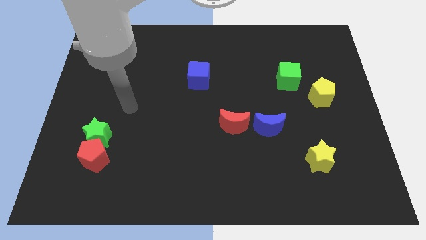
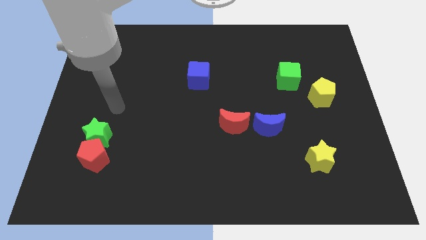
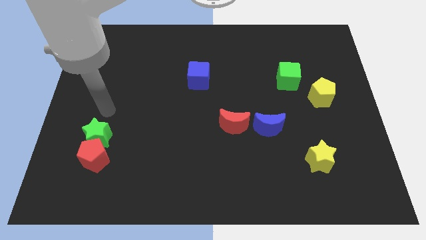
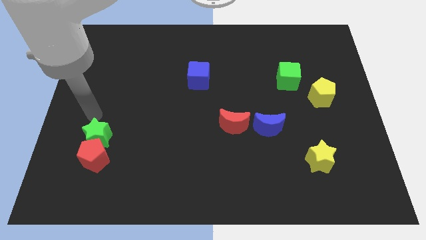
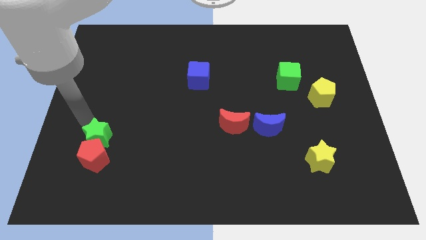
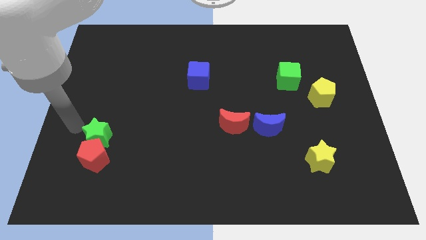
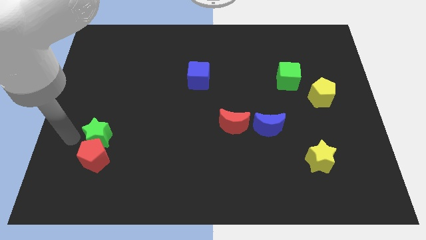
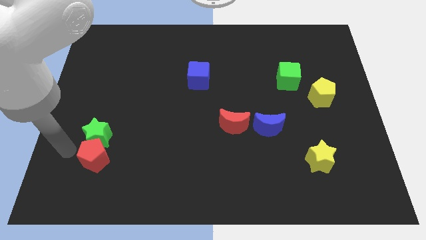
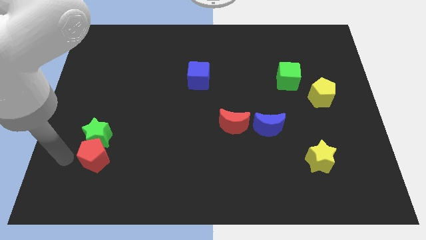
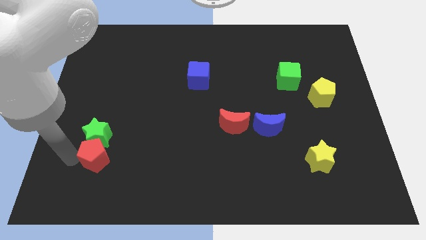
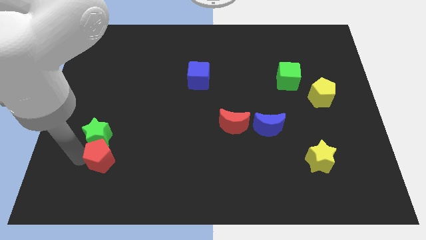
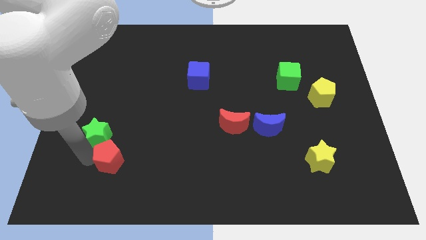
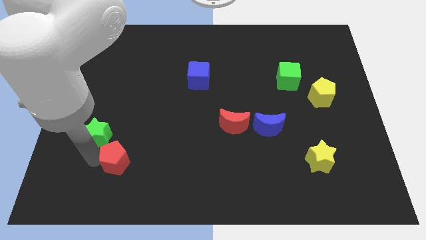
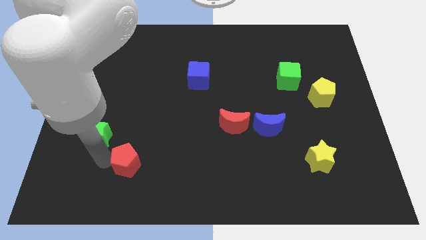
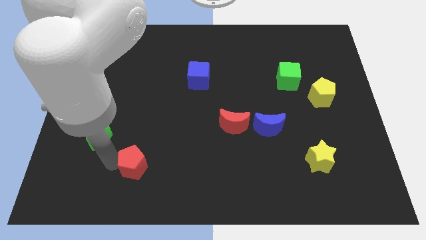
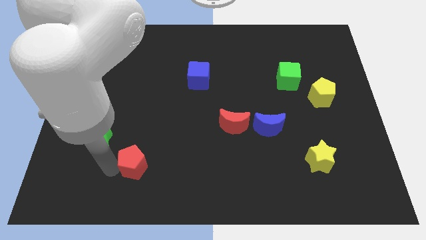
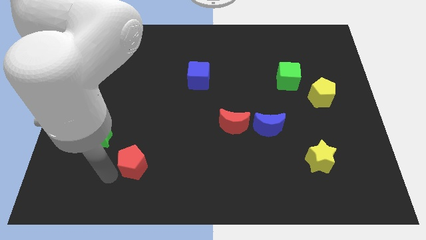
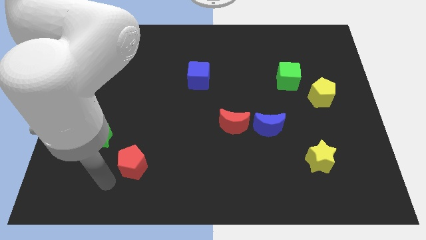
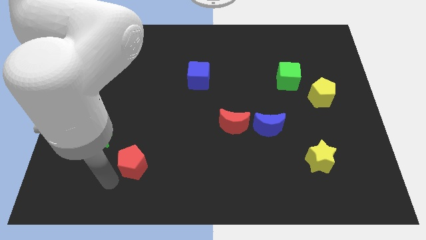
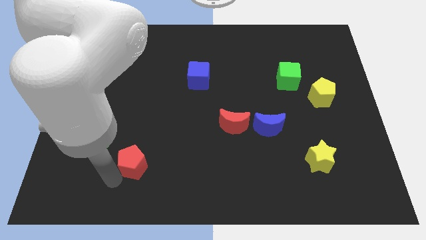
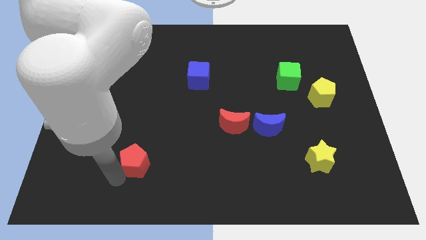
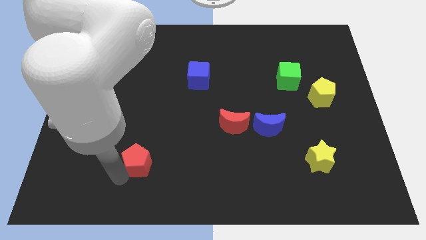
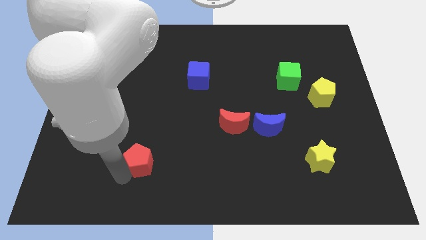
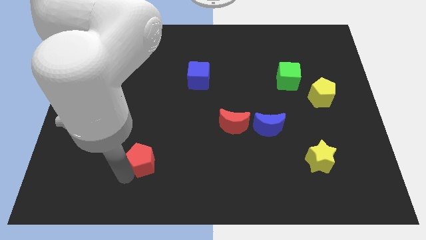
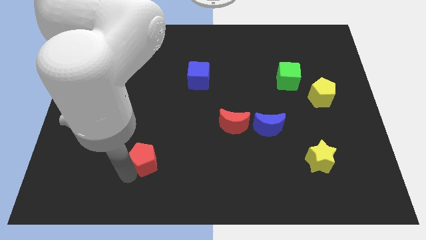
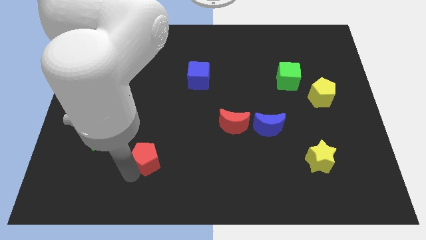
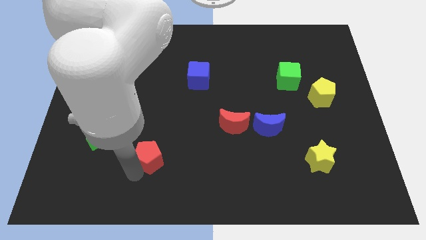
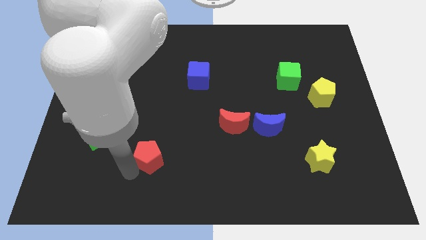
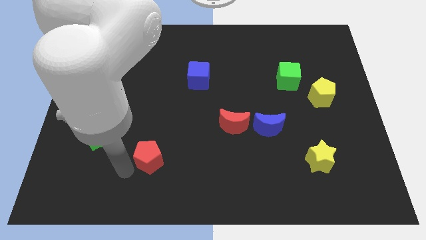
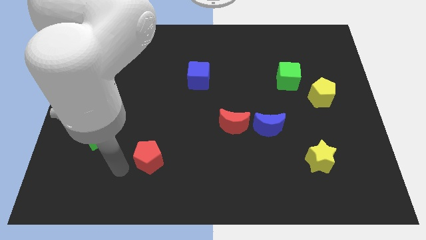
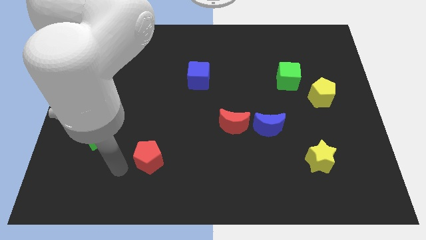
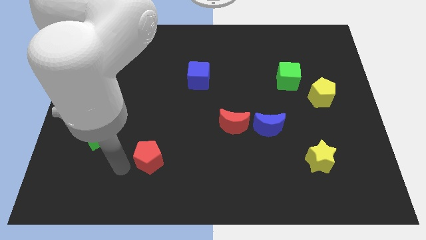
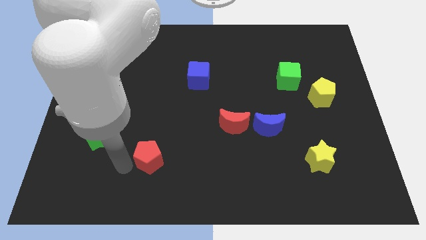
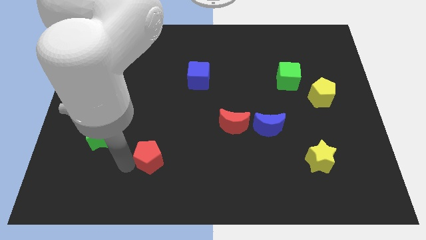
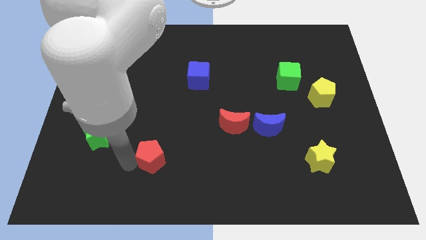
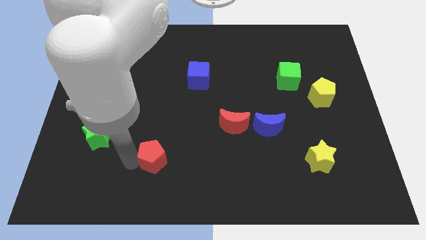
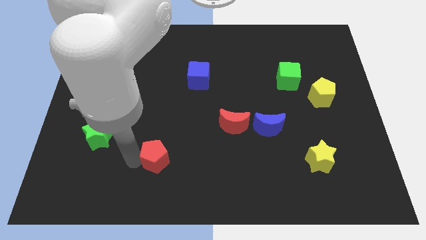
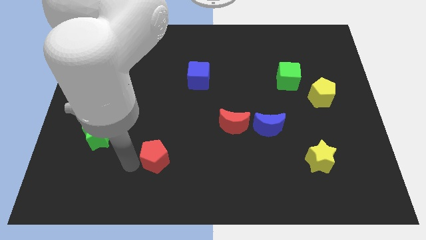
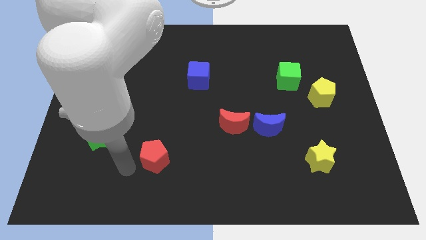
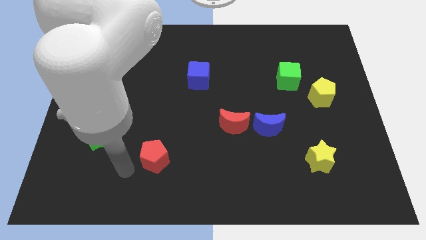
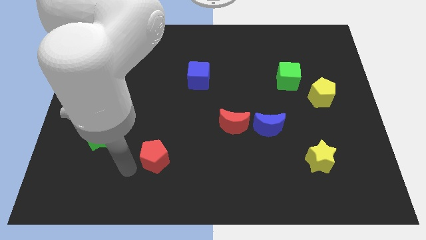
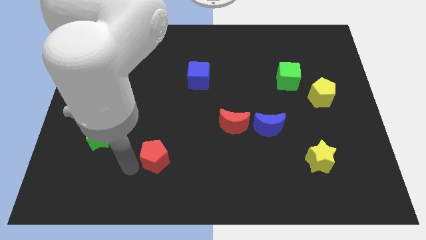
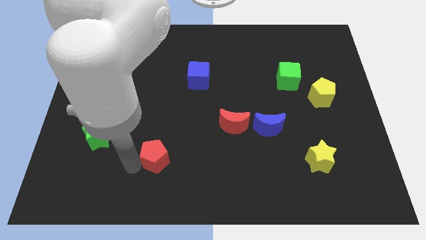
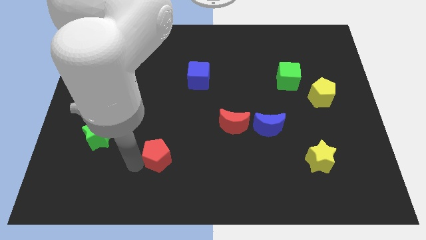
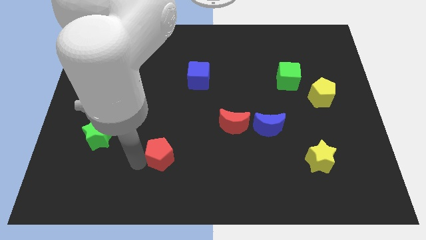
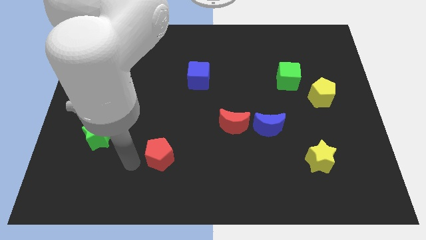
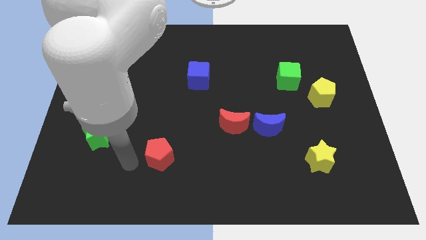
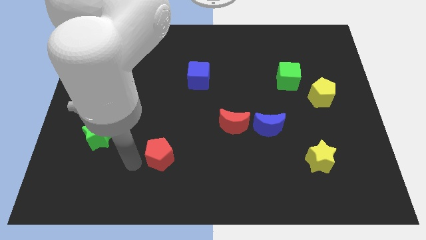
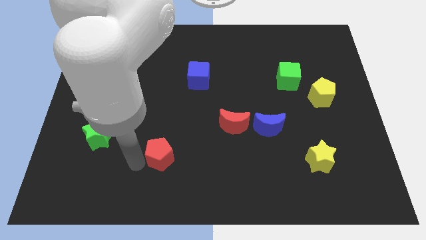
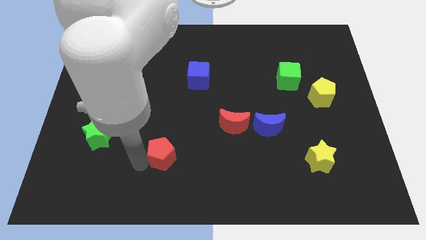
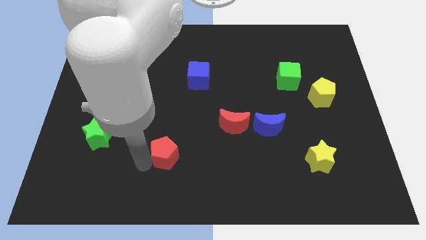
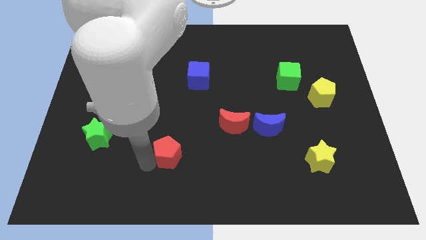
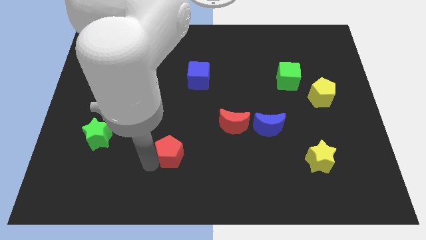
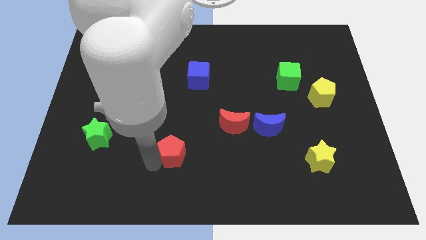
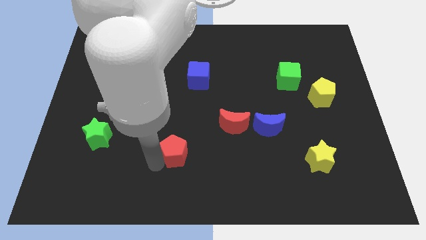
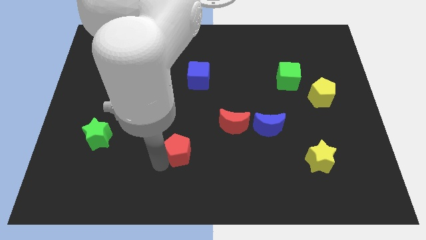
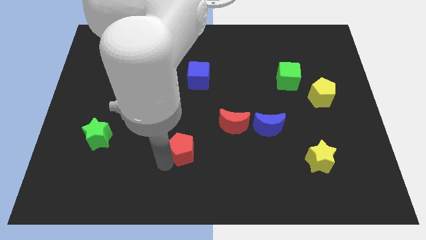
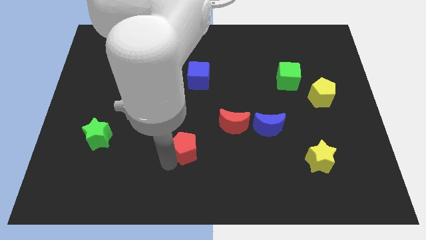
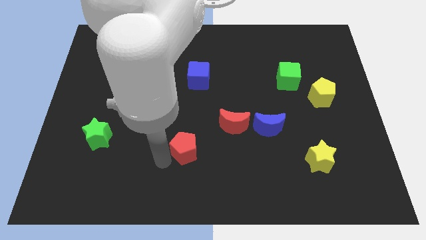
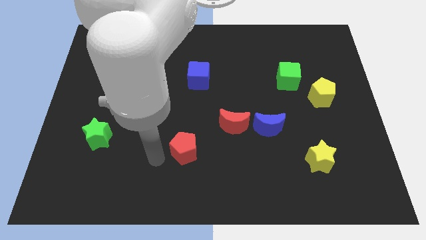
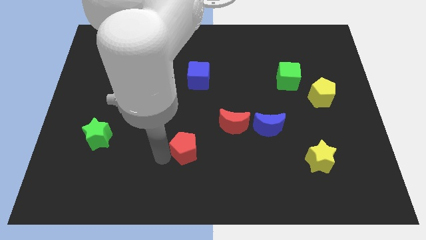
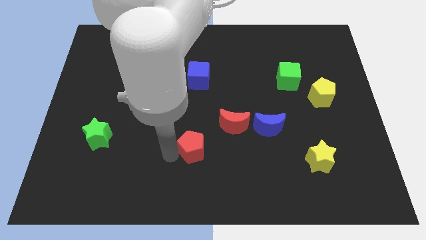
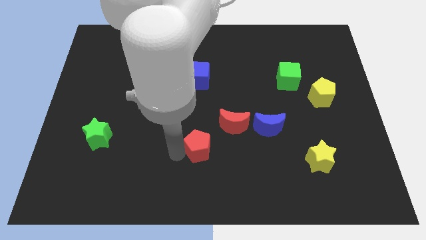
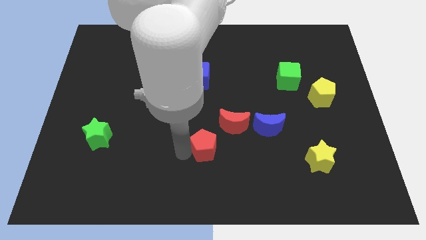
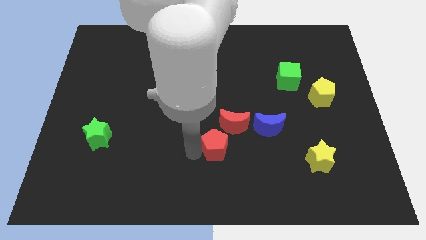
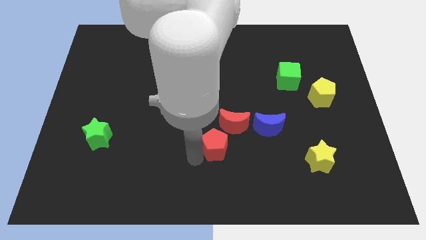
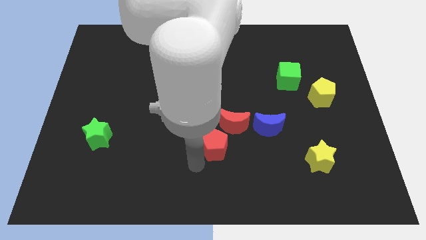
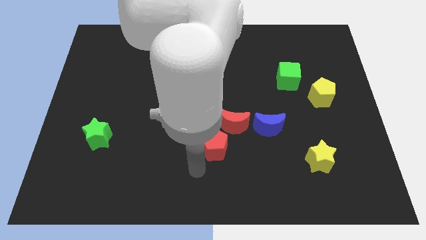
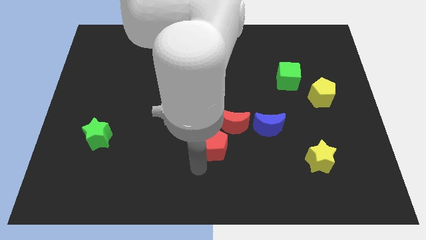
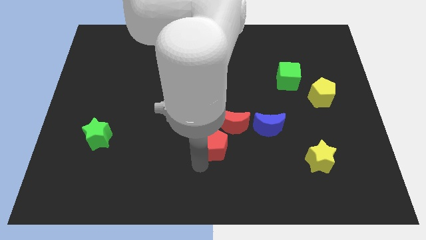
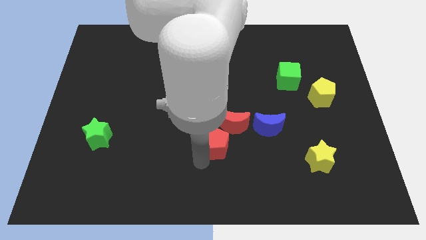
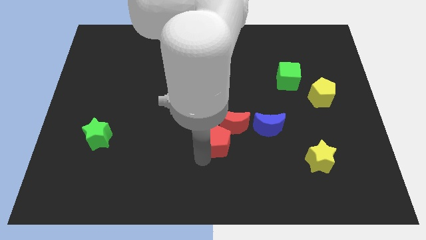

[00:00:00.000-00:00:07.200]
push the red pentagon towards the red moon

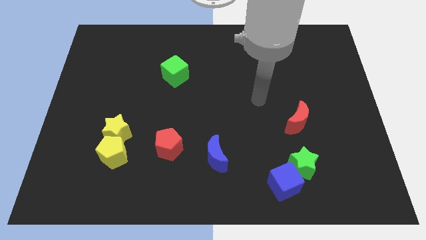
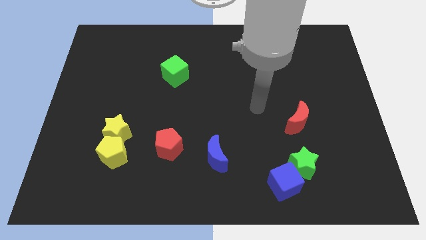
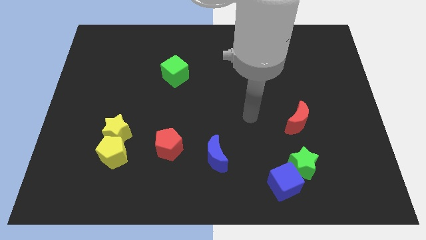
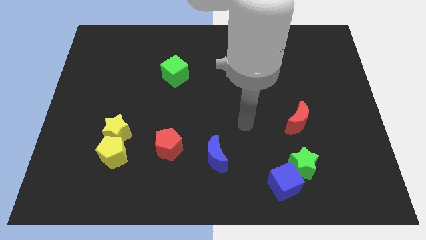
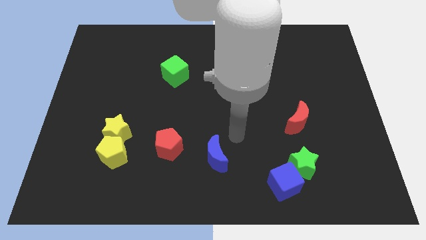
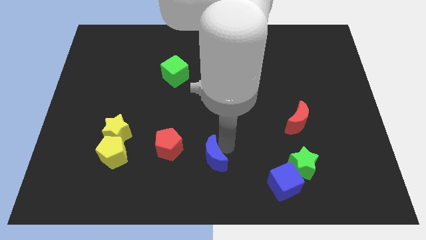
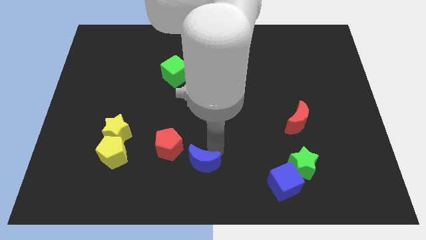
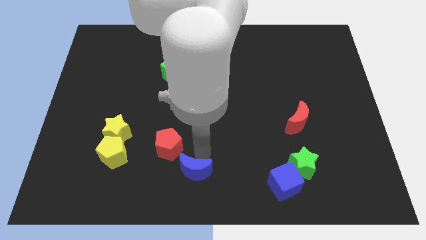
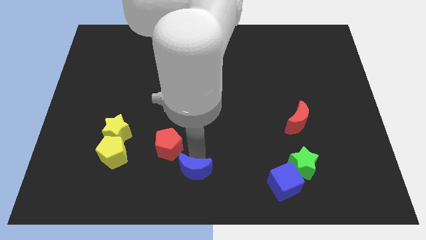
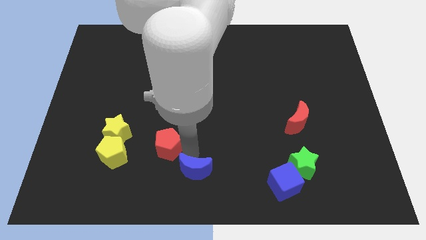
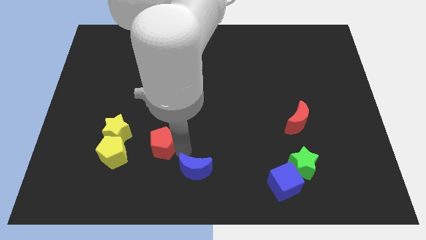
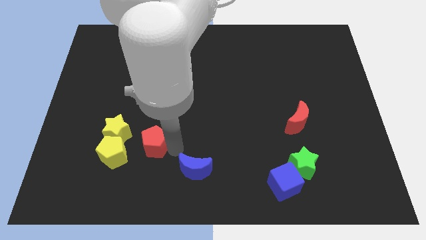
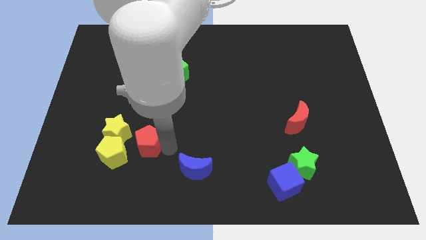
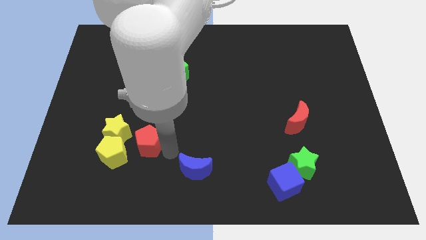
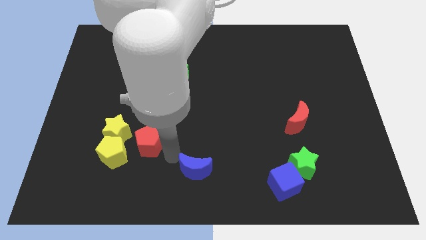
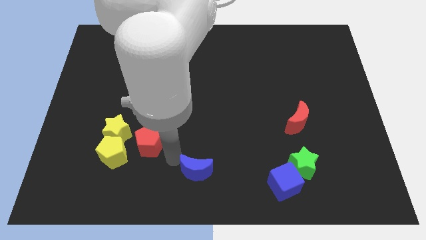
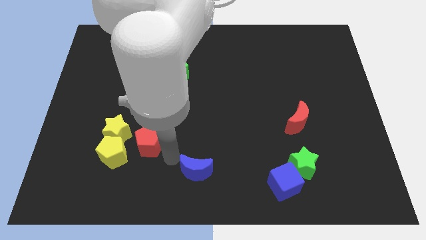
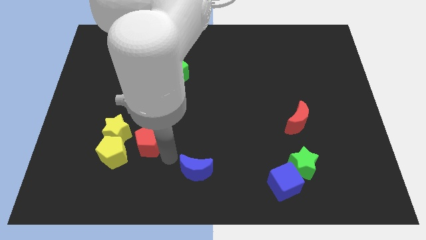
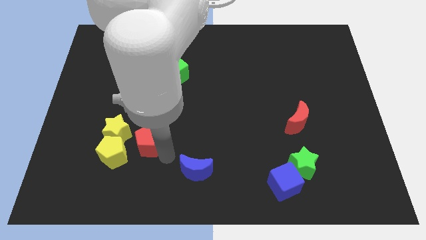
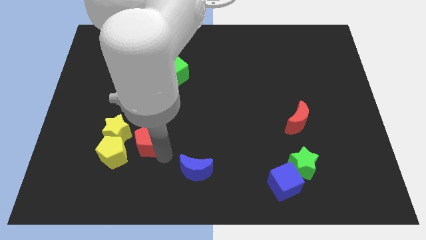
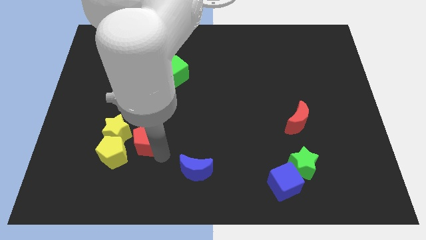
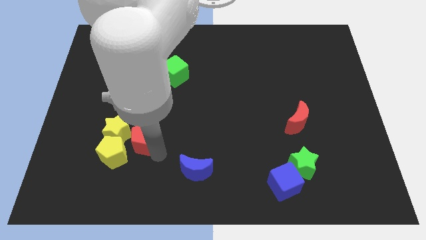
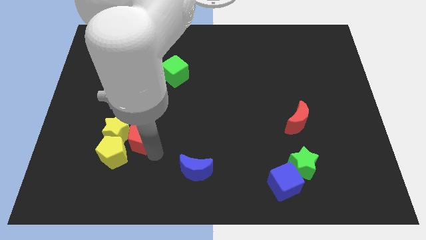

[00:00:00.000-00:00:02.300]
move the red pentagon to the yellow star
